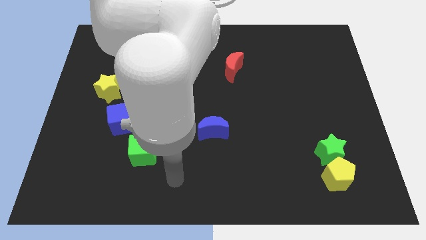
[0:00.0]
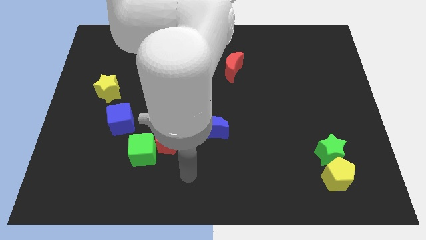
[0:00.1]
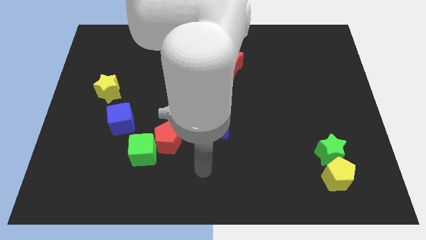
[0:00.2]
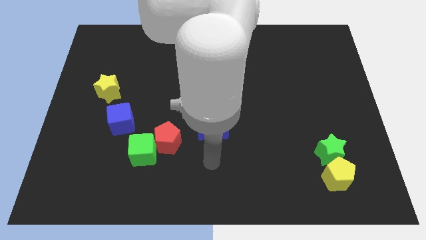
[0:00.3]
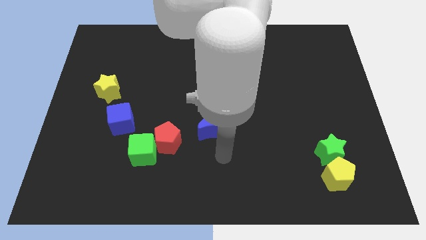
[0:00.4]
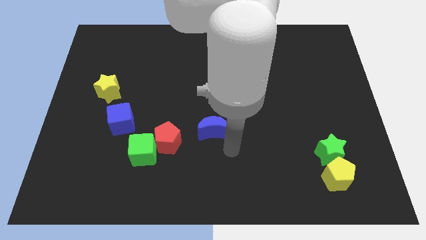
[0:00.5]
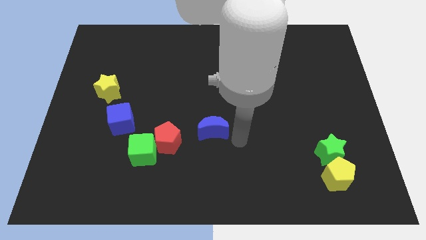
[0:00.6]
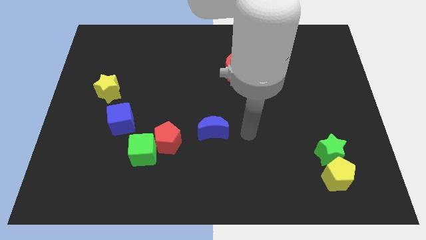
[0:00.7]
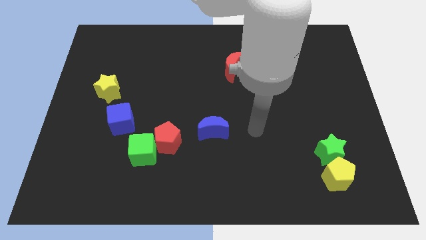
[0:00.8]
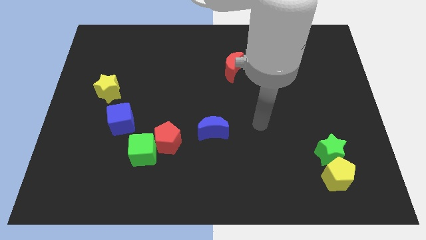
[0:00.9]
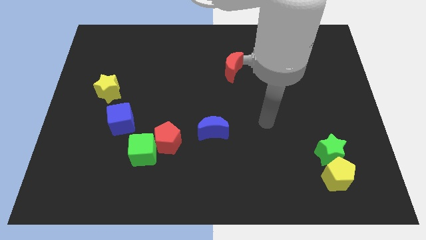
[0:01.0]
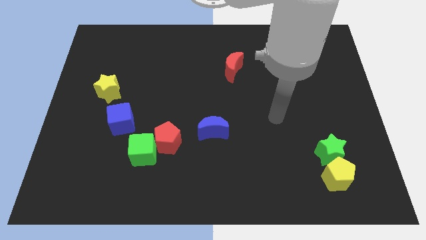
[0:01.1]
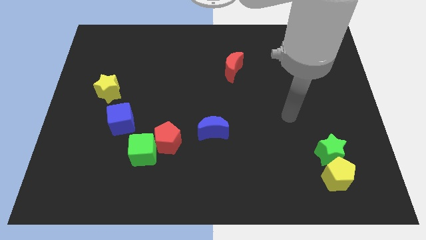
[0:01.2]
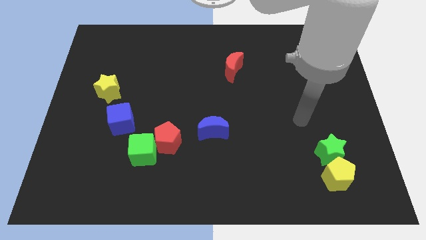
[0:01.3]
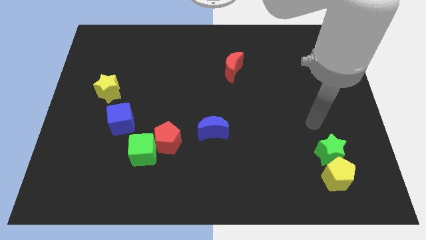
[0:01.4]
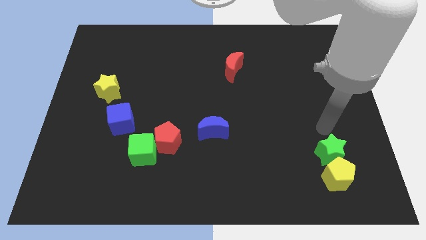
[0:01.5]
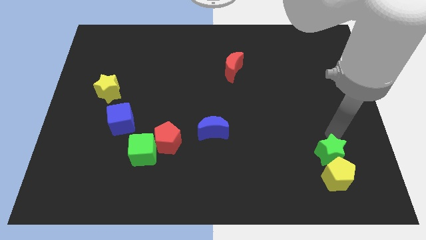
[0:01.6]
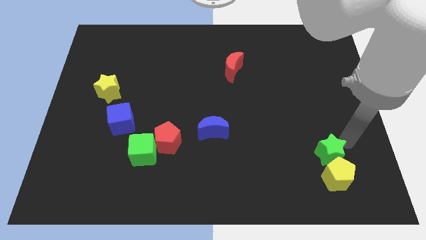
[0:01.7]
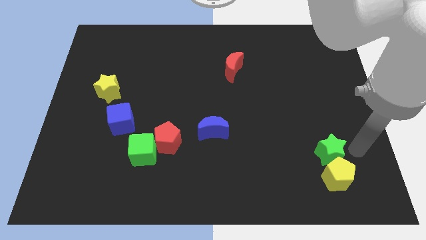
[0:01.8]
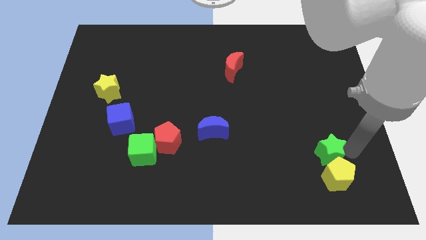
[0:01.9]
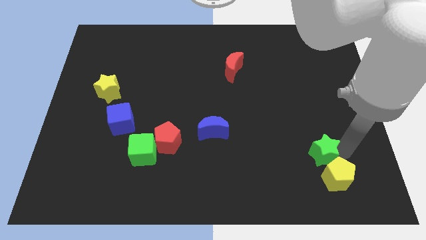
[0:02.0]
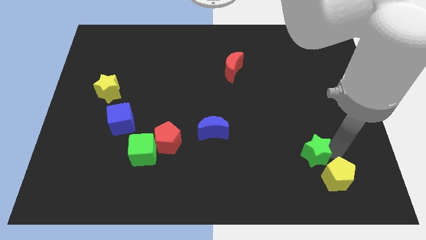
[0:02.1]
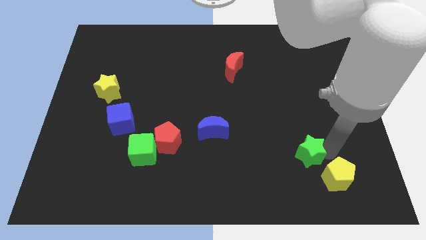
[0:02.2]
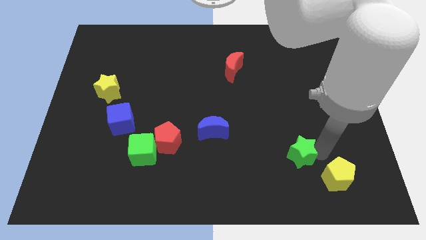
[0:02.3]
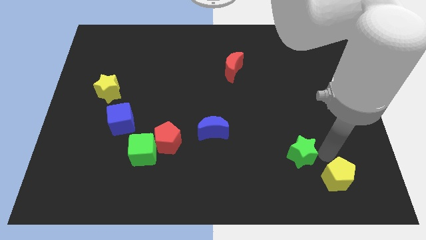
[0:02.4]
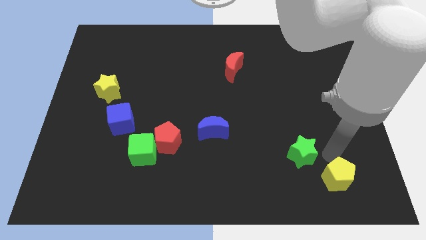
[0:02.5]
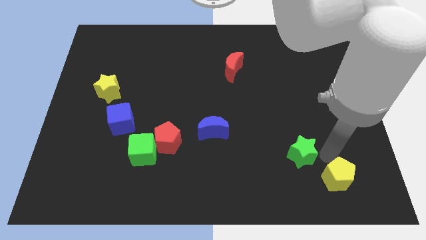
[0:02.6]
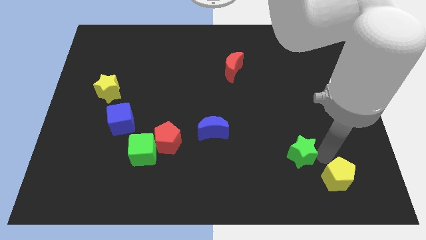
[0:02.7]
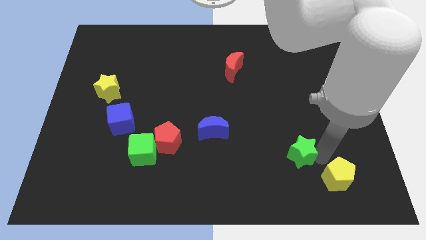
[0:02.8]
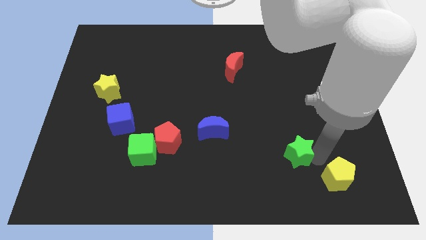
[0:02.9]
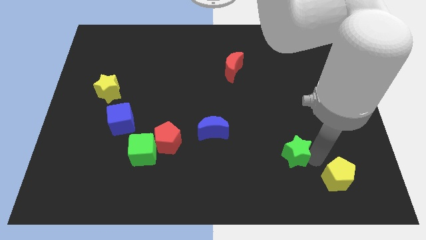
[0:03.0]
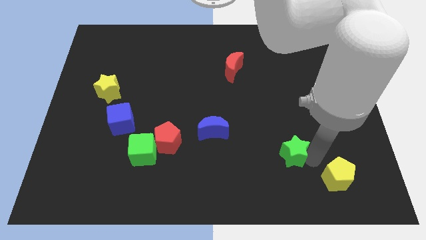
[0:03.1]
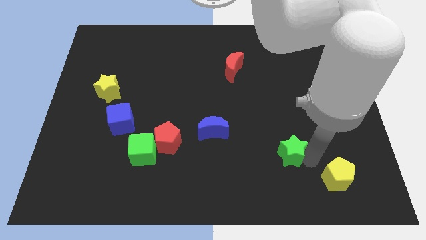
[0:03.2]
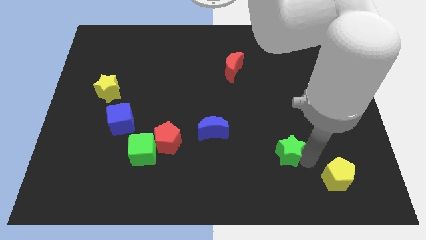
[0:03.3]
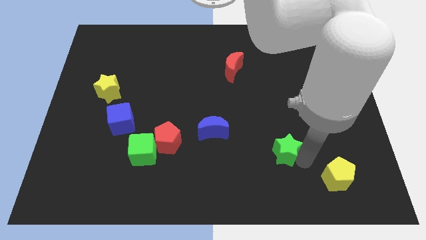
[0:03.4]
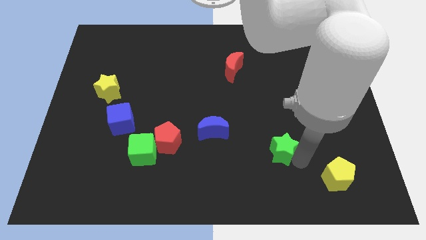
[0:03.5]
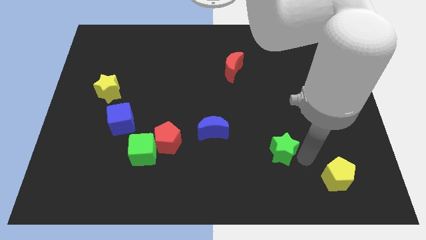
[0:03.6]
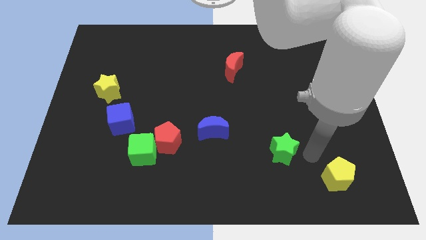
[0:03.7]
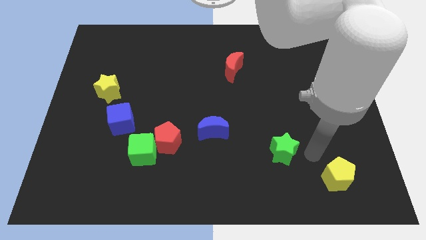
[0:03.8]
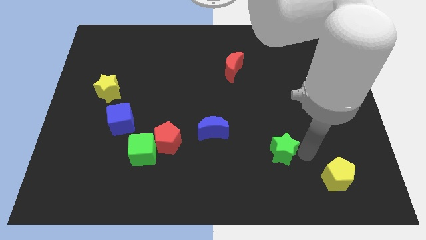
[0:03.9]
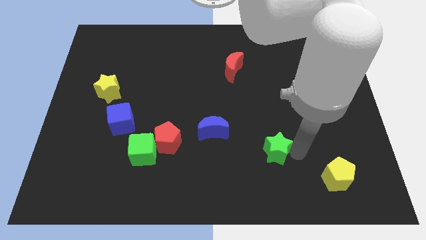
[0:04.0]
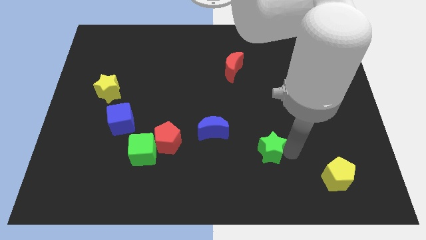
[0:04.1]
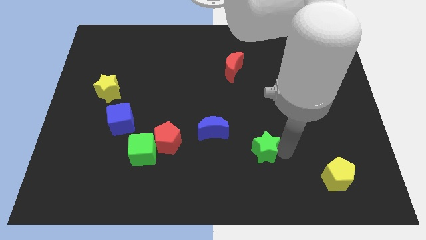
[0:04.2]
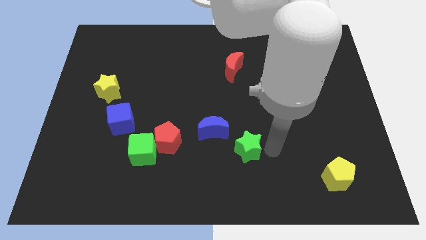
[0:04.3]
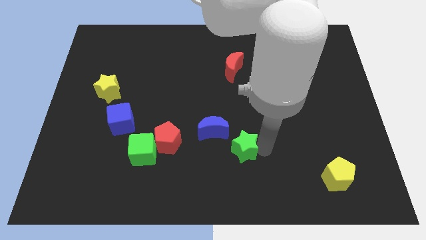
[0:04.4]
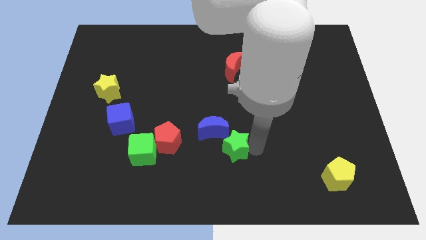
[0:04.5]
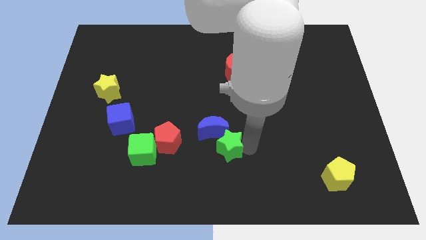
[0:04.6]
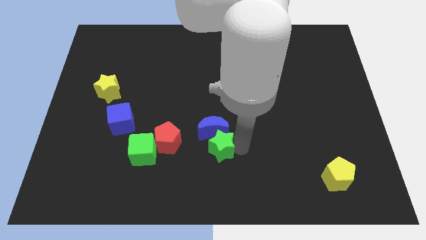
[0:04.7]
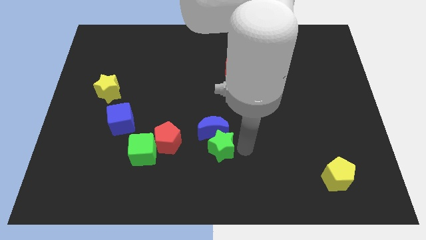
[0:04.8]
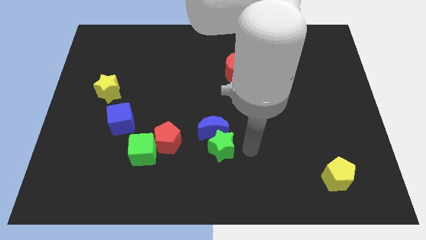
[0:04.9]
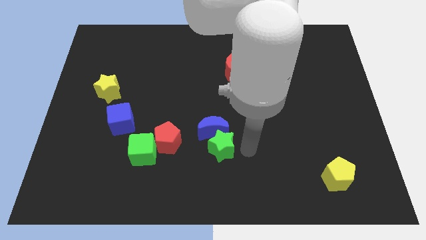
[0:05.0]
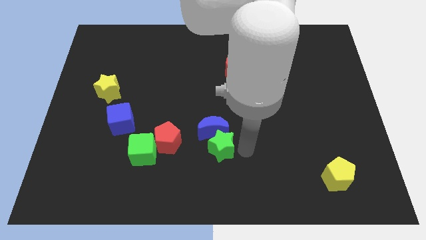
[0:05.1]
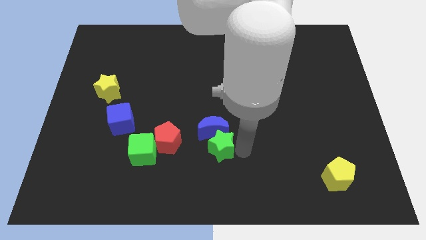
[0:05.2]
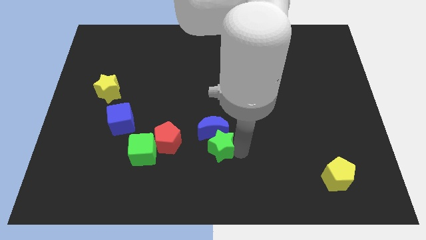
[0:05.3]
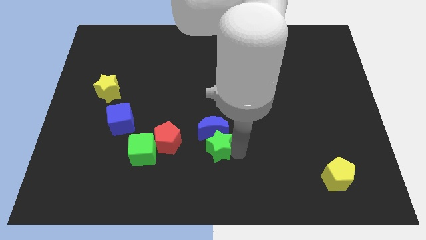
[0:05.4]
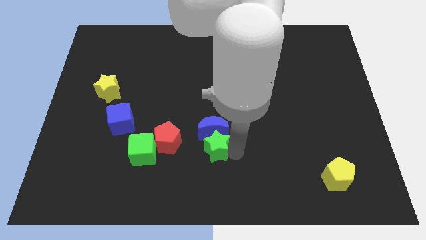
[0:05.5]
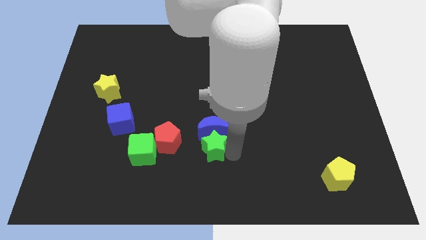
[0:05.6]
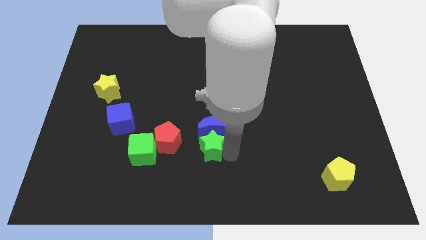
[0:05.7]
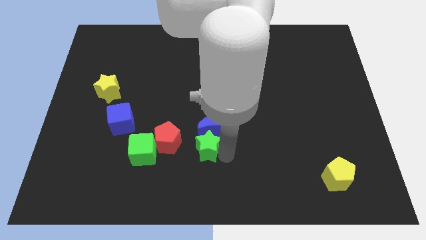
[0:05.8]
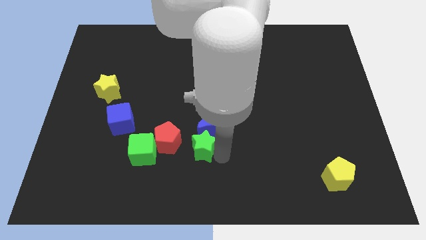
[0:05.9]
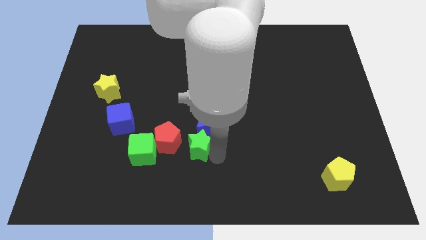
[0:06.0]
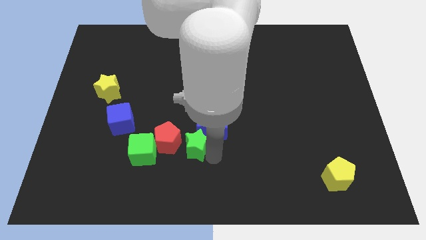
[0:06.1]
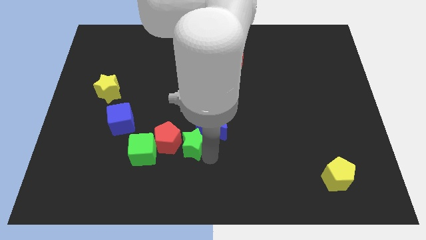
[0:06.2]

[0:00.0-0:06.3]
push the green star close to the red pentagon

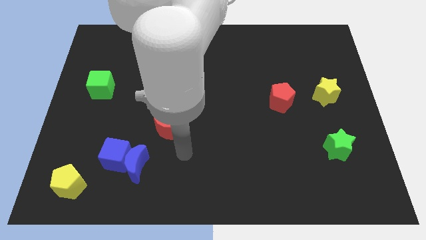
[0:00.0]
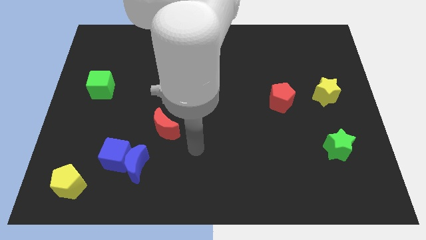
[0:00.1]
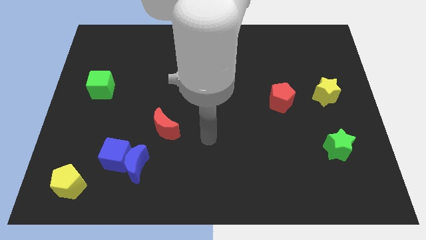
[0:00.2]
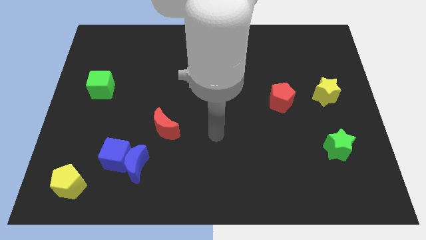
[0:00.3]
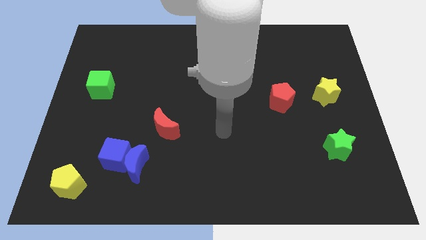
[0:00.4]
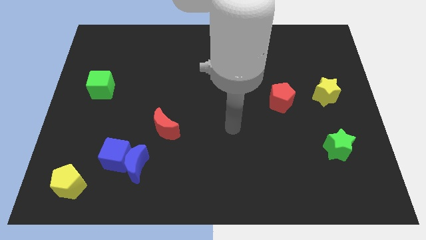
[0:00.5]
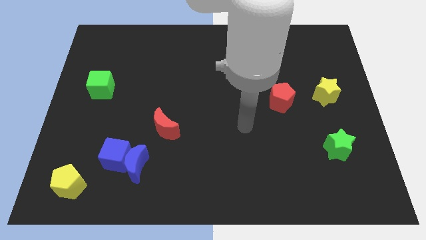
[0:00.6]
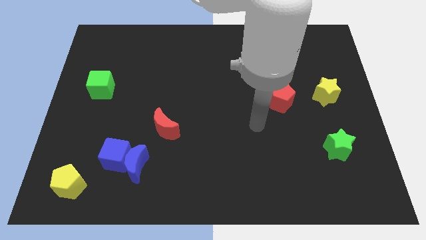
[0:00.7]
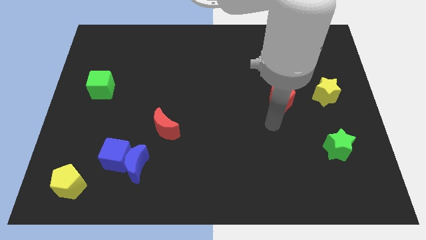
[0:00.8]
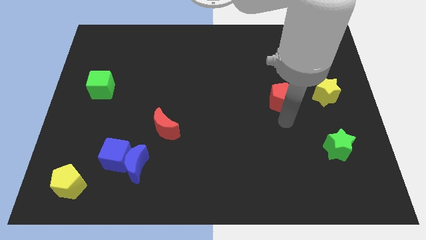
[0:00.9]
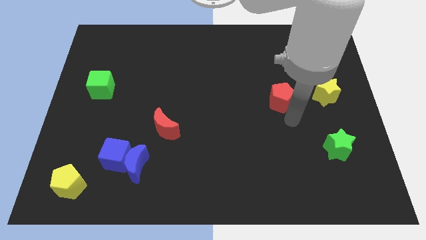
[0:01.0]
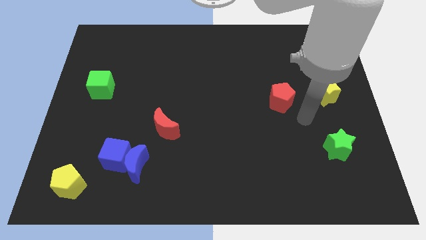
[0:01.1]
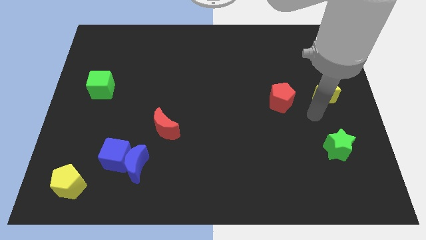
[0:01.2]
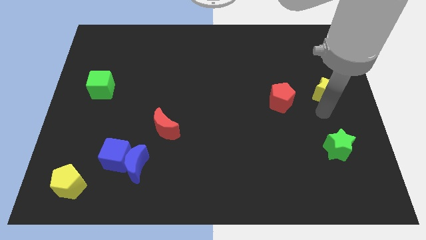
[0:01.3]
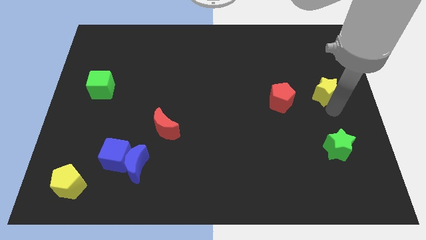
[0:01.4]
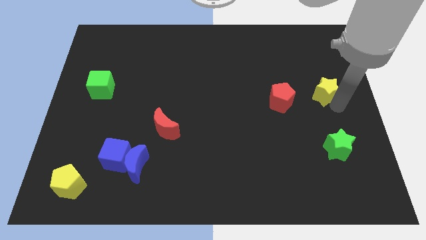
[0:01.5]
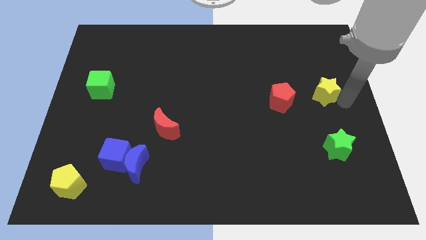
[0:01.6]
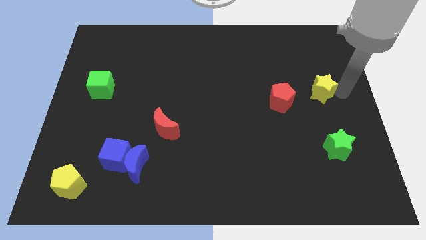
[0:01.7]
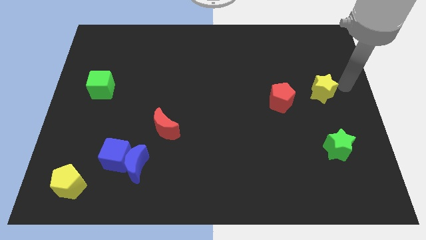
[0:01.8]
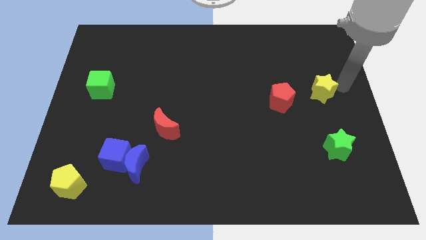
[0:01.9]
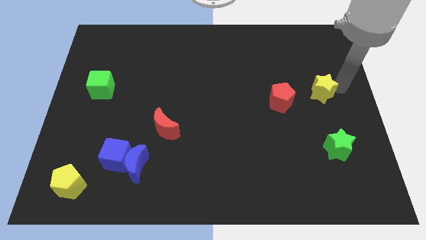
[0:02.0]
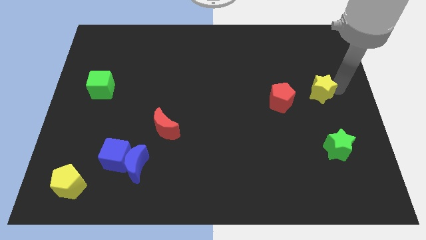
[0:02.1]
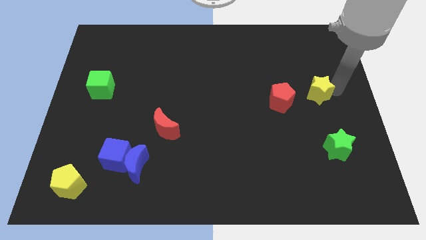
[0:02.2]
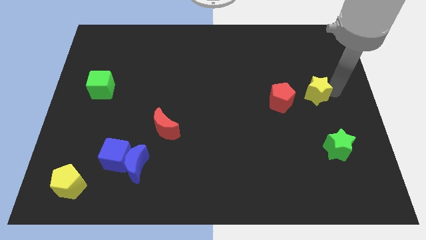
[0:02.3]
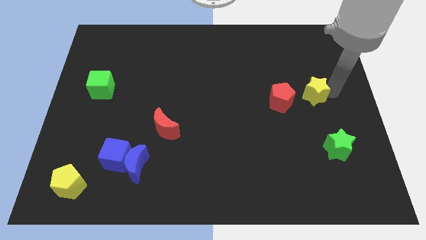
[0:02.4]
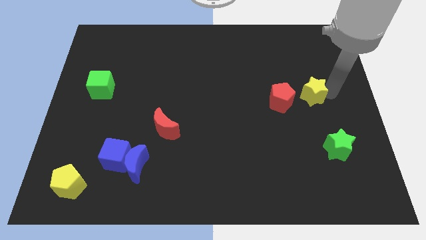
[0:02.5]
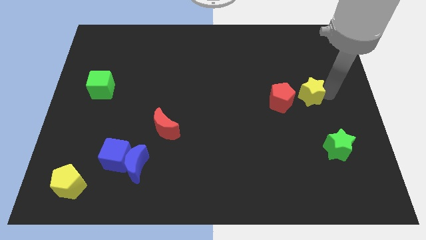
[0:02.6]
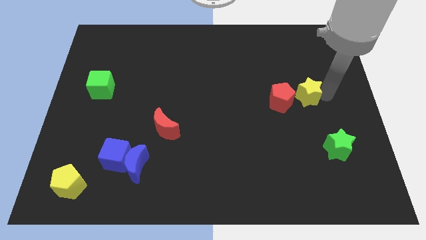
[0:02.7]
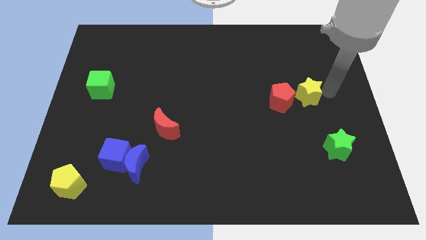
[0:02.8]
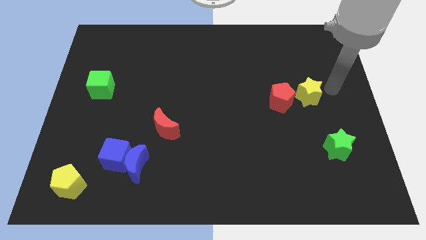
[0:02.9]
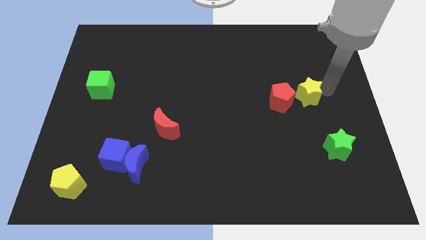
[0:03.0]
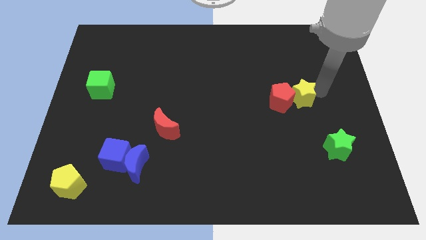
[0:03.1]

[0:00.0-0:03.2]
move the yellow star close to the red pentagon
